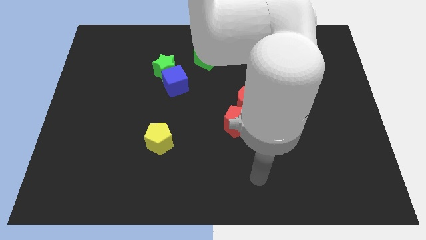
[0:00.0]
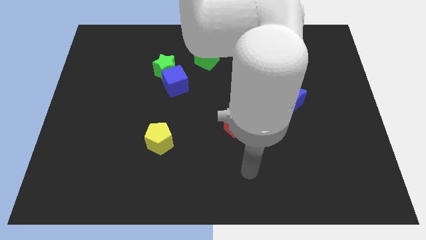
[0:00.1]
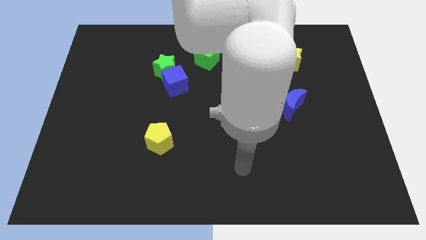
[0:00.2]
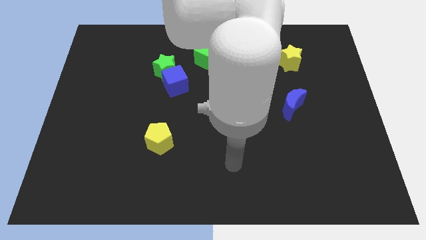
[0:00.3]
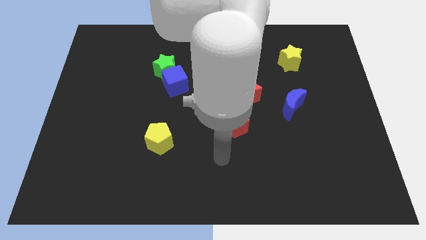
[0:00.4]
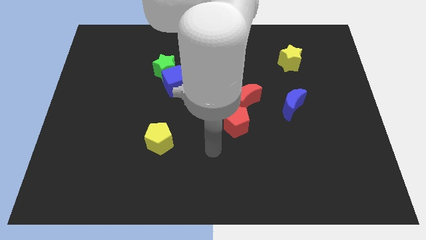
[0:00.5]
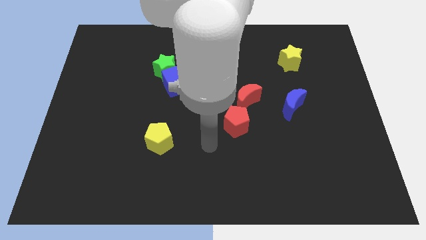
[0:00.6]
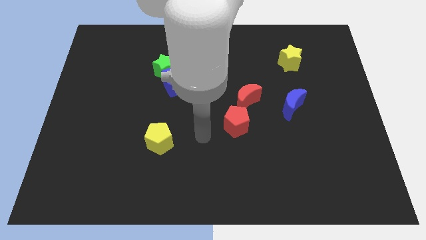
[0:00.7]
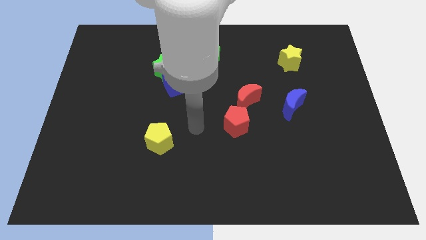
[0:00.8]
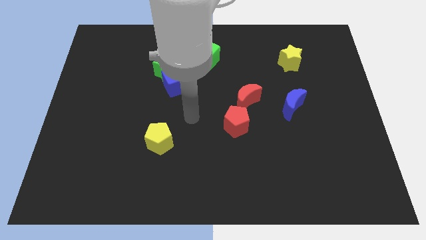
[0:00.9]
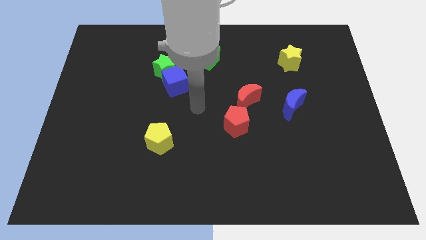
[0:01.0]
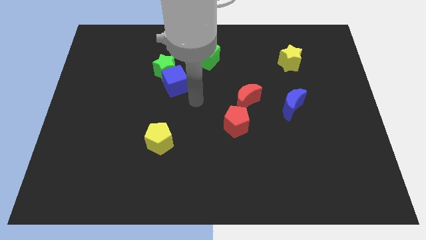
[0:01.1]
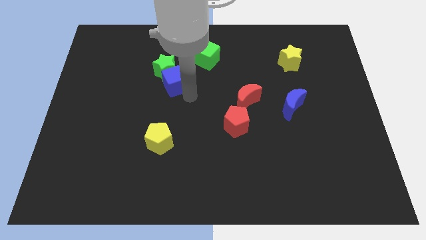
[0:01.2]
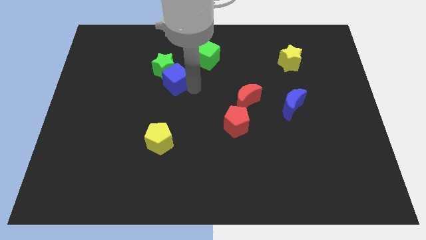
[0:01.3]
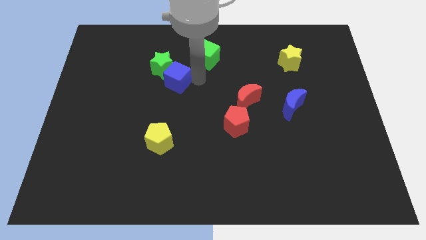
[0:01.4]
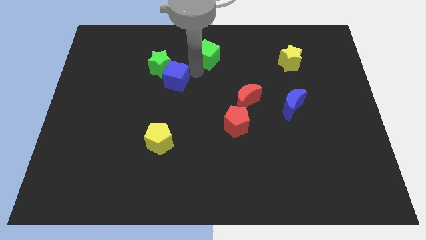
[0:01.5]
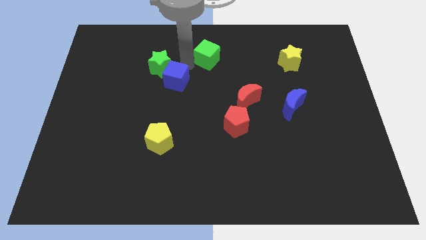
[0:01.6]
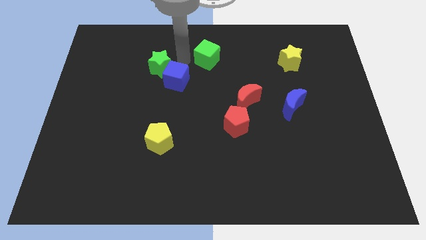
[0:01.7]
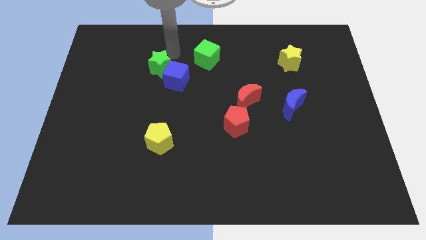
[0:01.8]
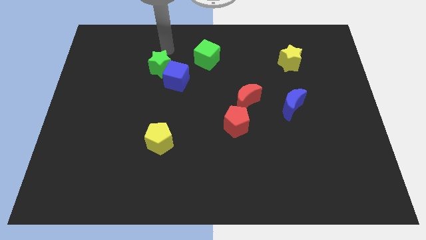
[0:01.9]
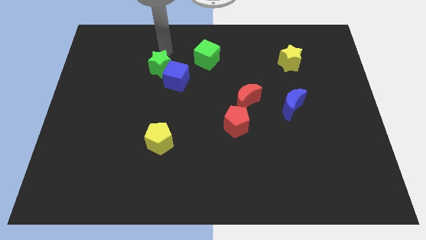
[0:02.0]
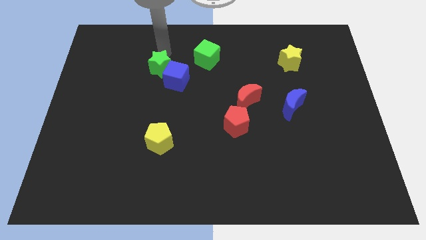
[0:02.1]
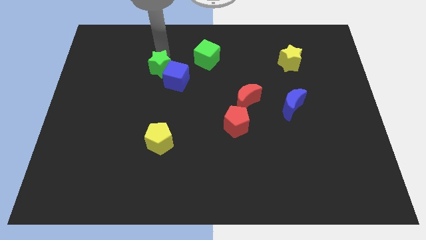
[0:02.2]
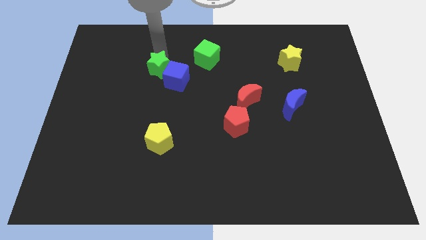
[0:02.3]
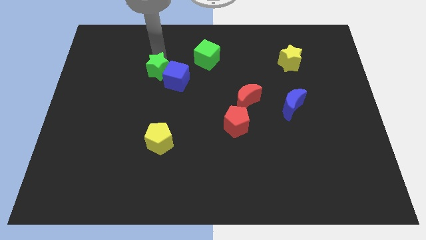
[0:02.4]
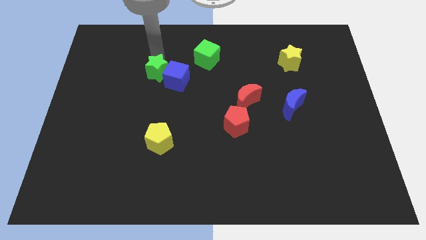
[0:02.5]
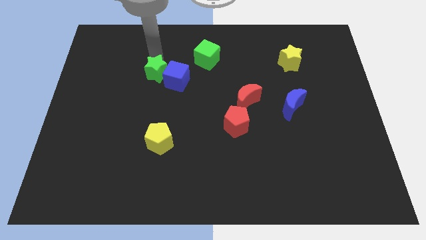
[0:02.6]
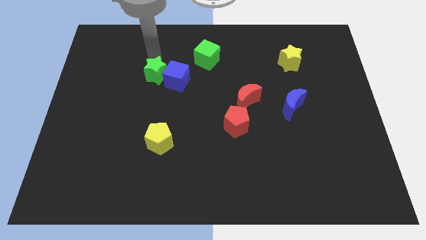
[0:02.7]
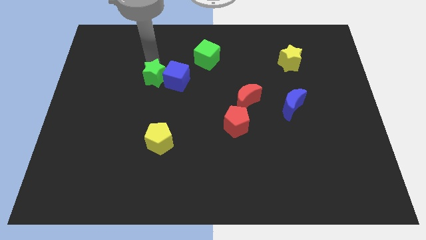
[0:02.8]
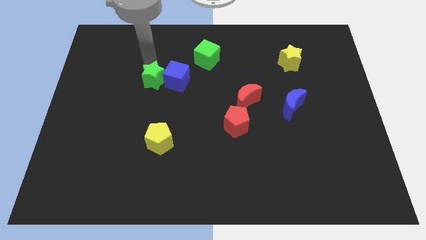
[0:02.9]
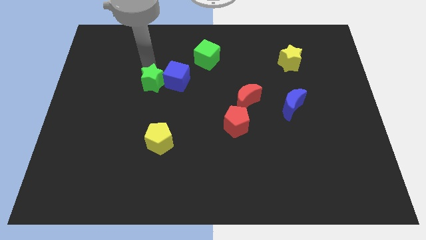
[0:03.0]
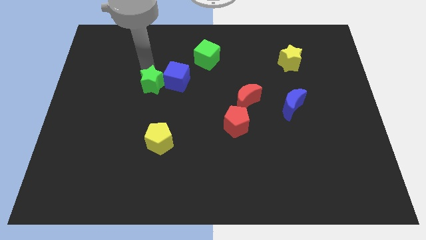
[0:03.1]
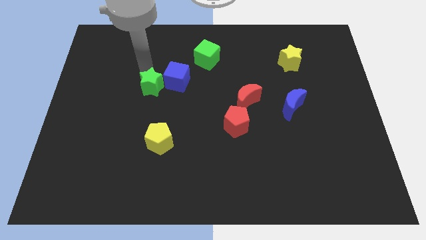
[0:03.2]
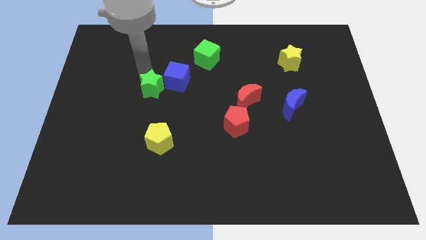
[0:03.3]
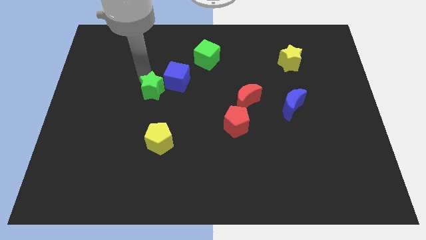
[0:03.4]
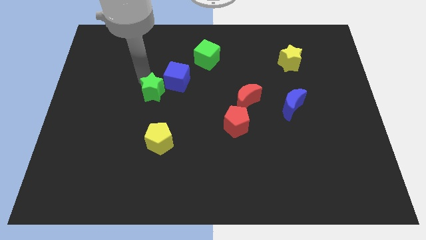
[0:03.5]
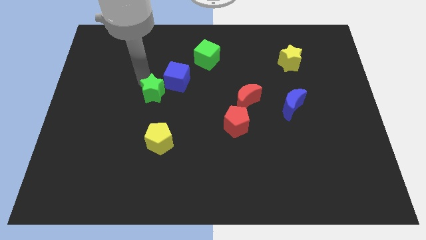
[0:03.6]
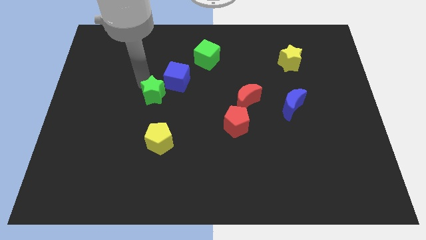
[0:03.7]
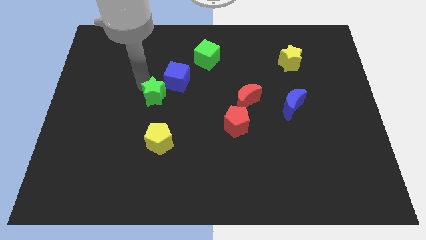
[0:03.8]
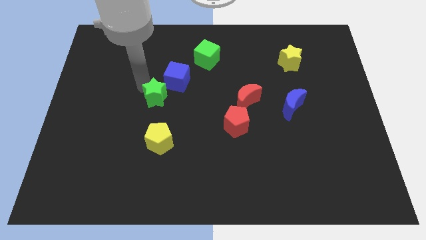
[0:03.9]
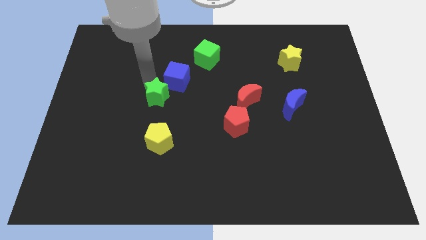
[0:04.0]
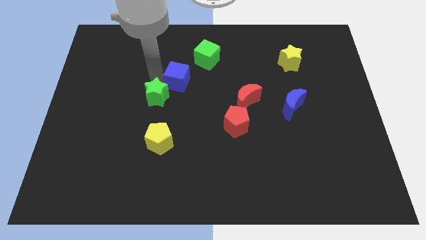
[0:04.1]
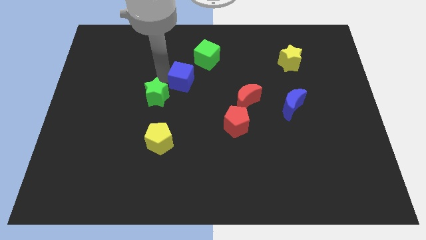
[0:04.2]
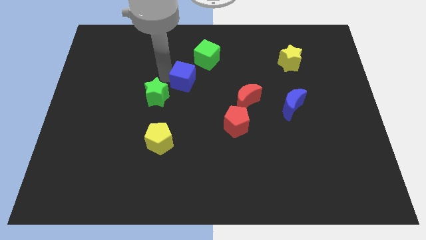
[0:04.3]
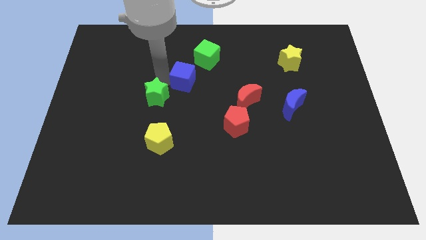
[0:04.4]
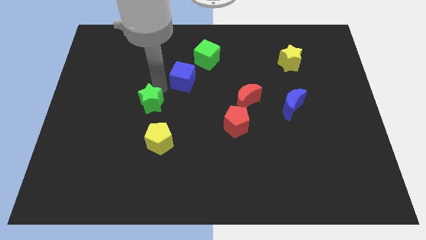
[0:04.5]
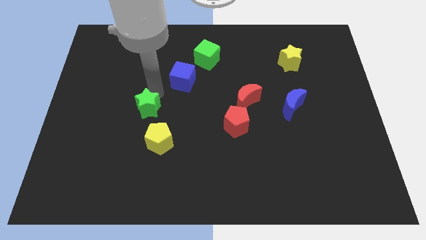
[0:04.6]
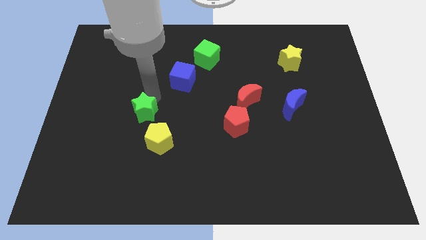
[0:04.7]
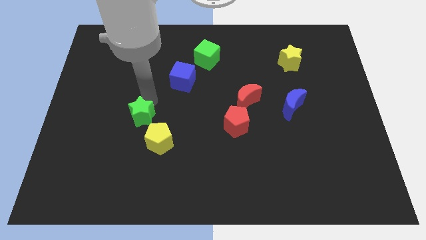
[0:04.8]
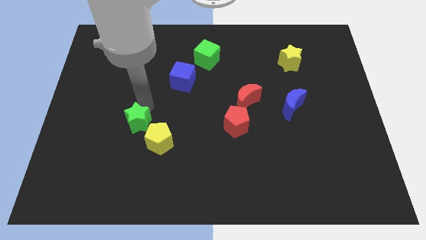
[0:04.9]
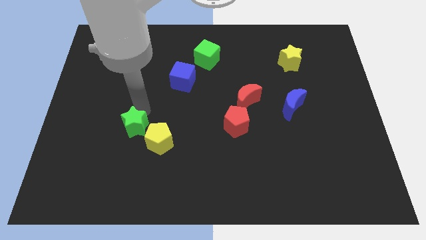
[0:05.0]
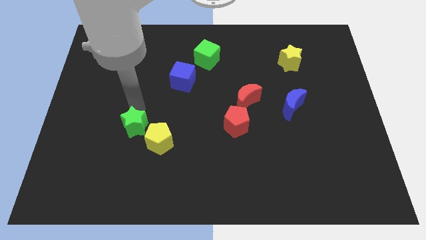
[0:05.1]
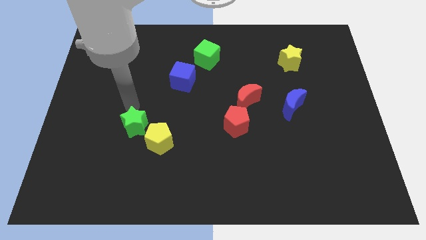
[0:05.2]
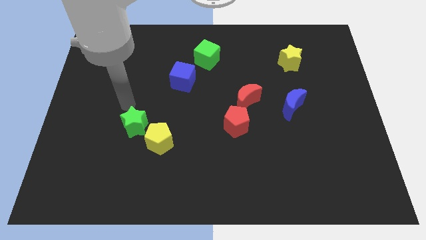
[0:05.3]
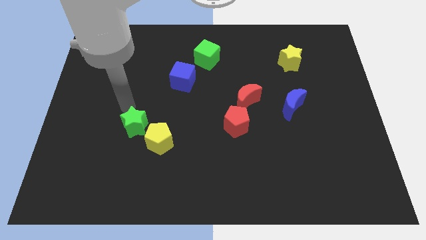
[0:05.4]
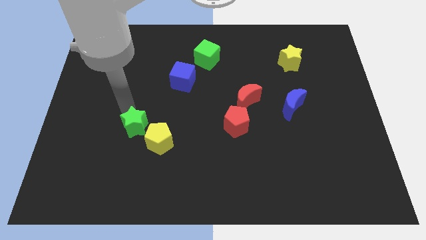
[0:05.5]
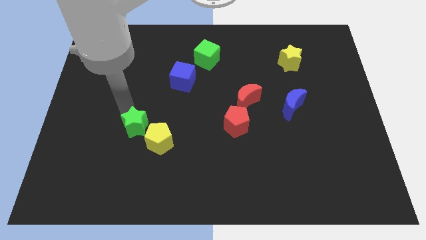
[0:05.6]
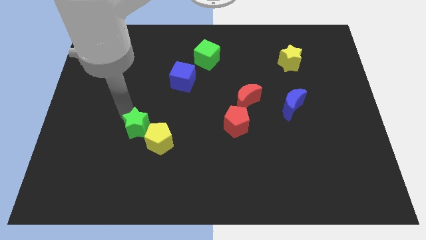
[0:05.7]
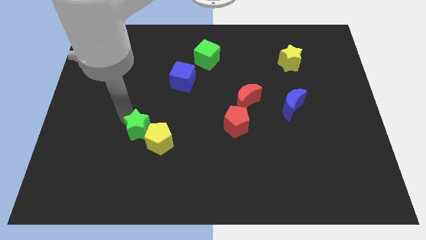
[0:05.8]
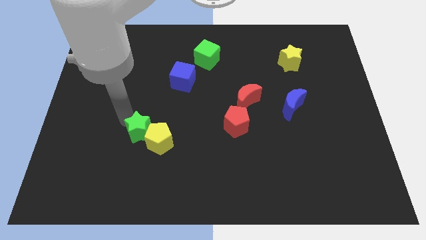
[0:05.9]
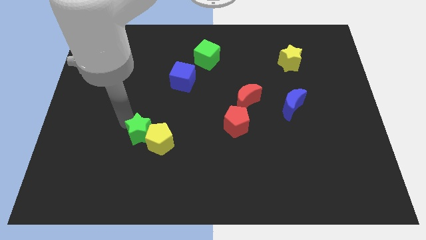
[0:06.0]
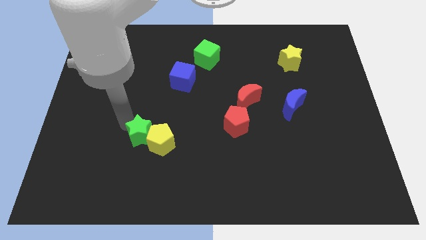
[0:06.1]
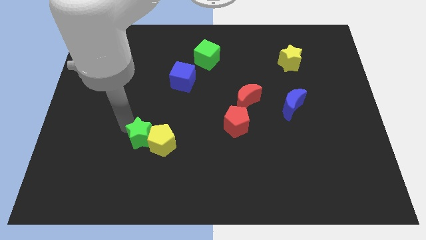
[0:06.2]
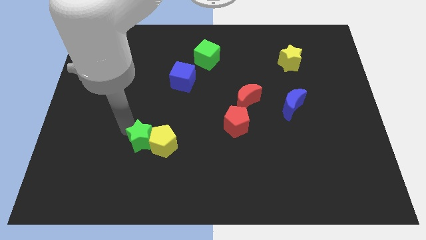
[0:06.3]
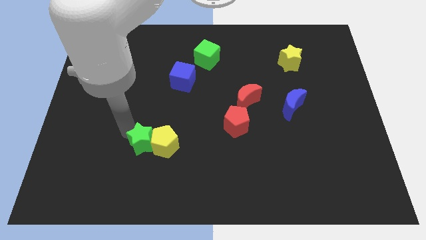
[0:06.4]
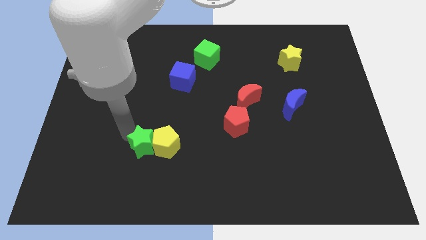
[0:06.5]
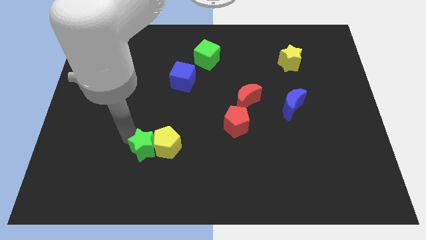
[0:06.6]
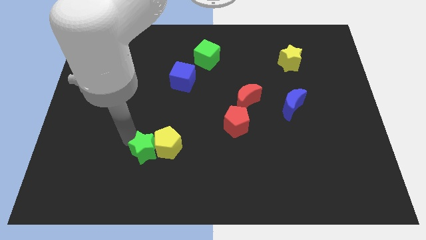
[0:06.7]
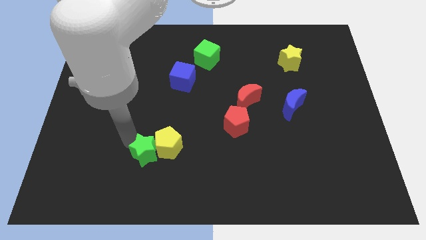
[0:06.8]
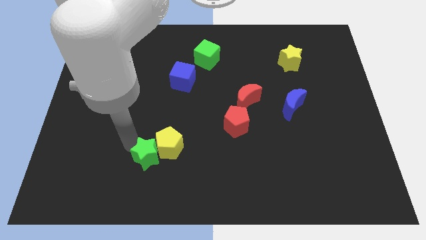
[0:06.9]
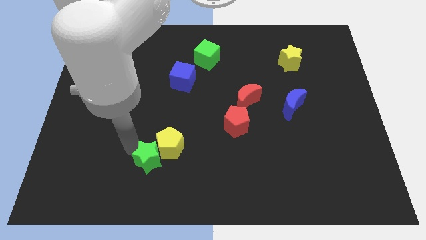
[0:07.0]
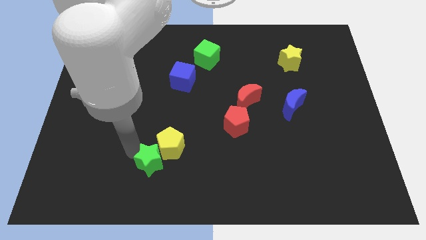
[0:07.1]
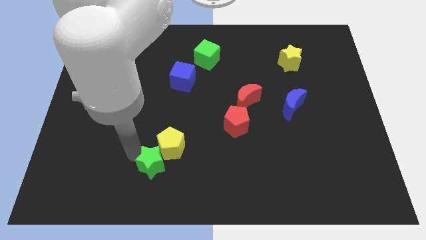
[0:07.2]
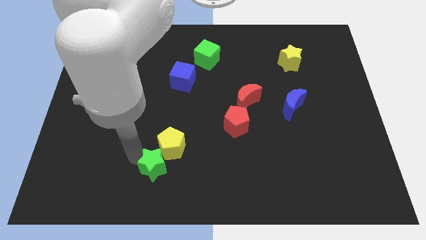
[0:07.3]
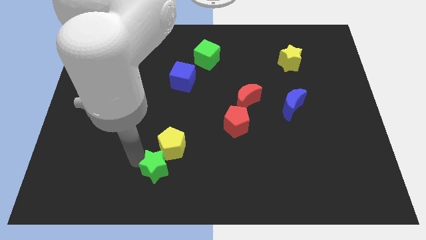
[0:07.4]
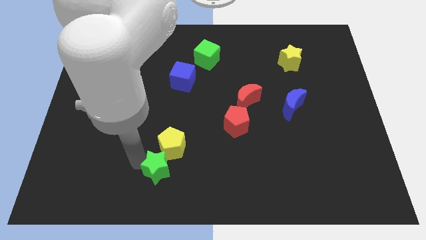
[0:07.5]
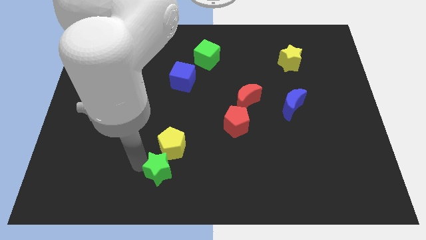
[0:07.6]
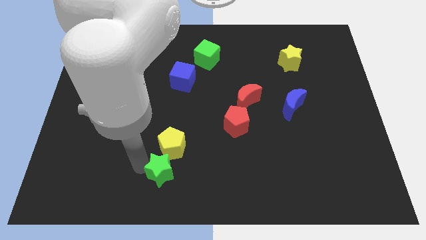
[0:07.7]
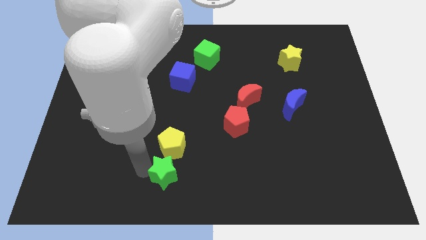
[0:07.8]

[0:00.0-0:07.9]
put the green star to the bottom

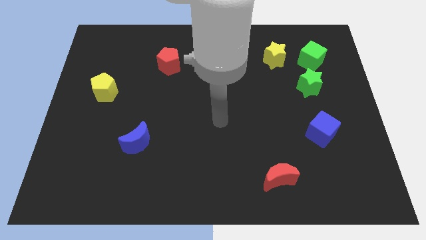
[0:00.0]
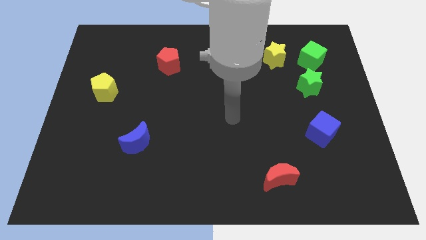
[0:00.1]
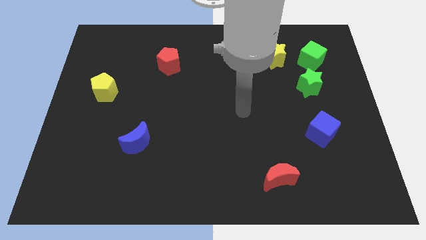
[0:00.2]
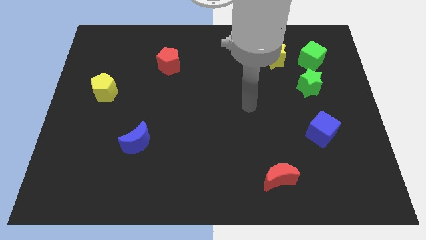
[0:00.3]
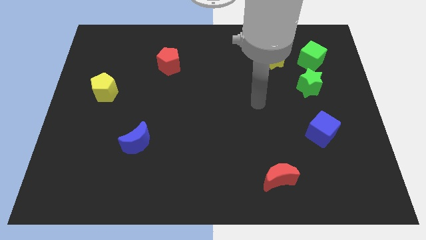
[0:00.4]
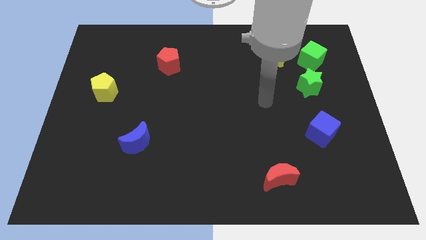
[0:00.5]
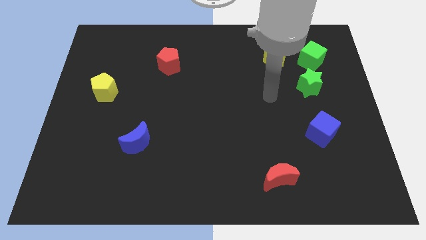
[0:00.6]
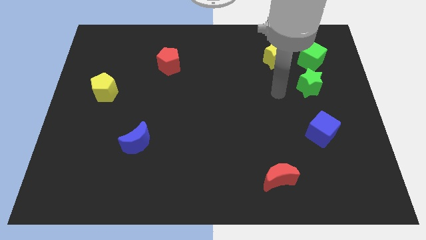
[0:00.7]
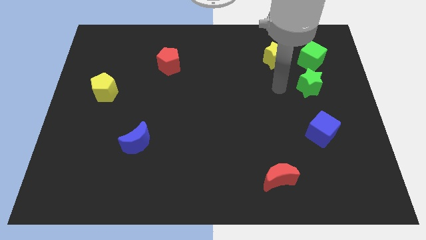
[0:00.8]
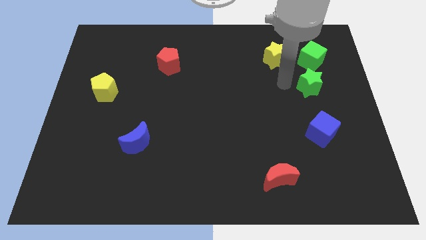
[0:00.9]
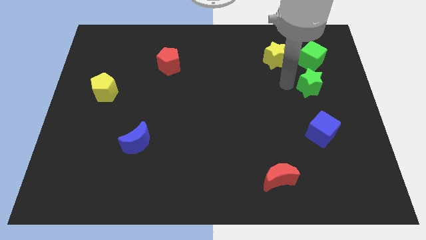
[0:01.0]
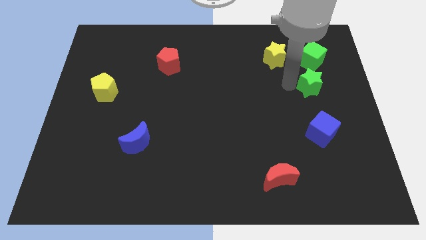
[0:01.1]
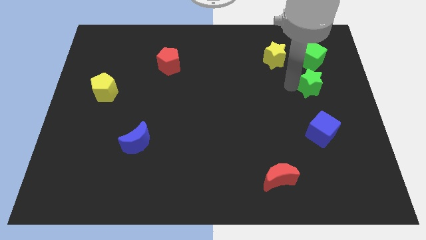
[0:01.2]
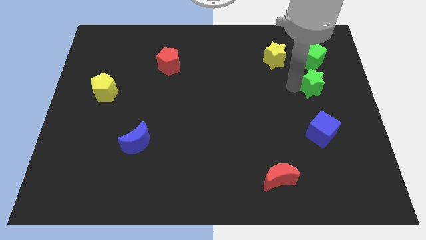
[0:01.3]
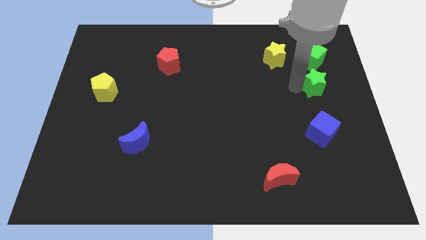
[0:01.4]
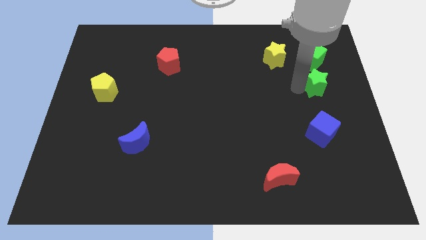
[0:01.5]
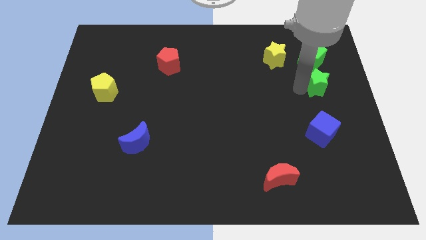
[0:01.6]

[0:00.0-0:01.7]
push the green star to the right side
